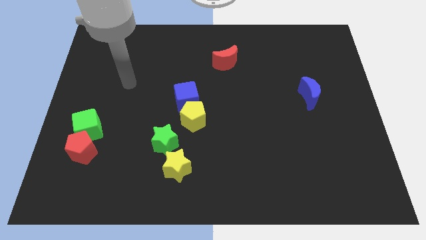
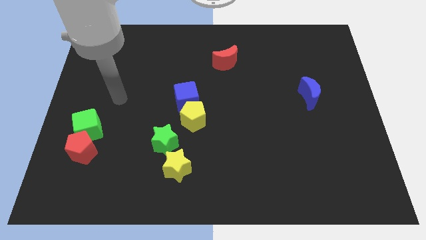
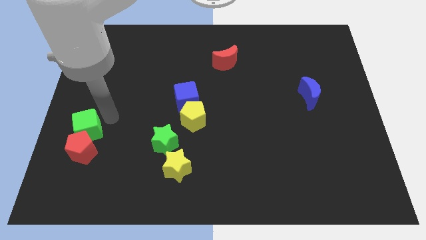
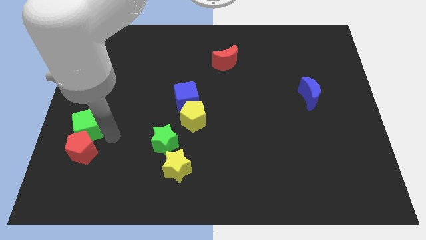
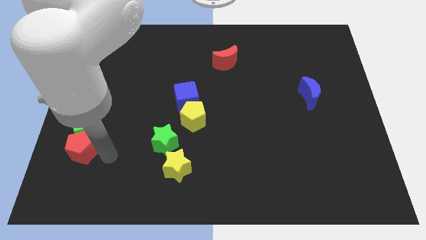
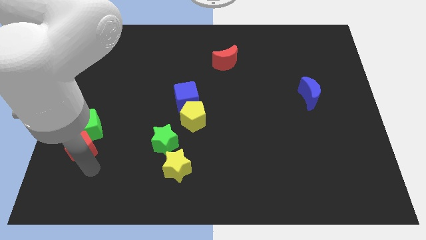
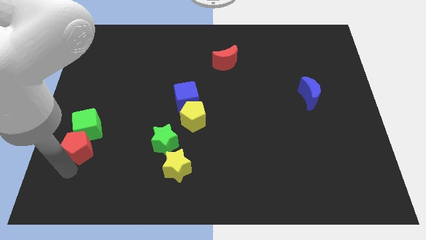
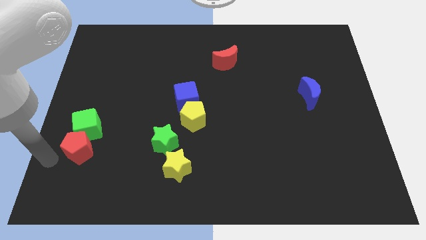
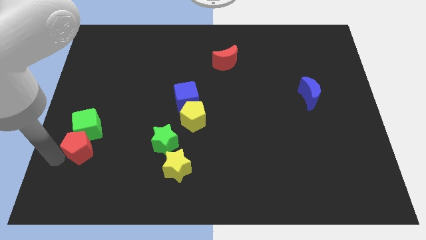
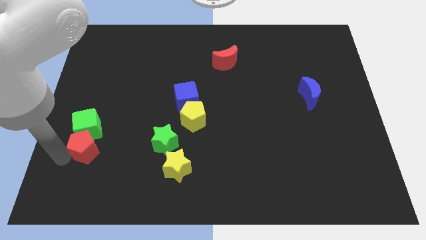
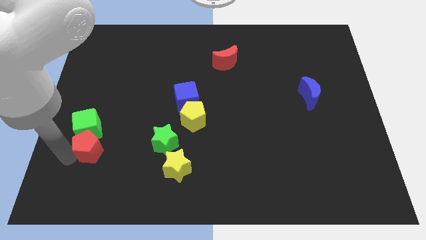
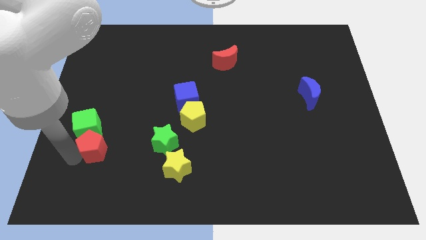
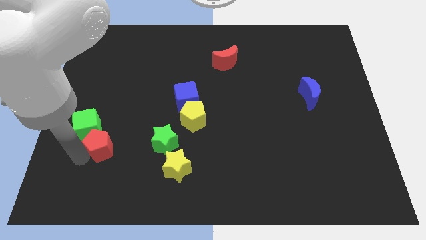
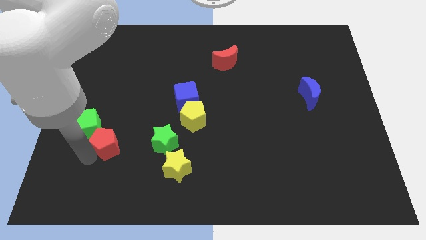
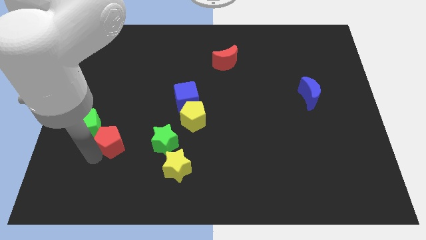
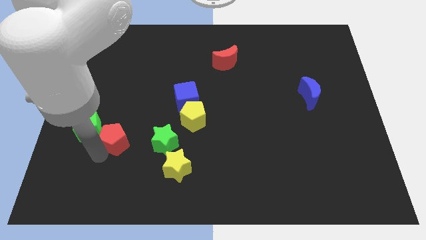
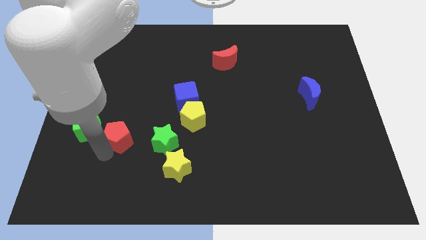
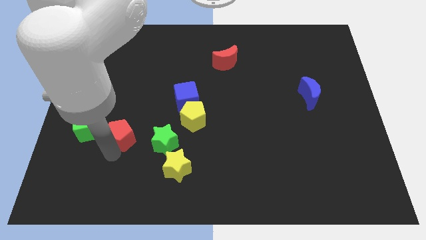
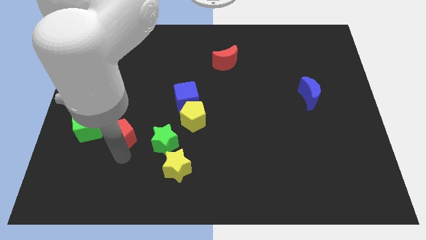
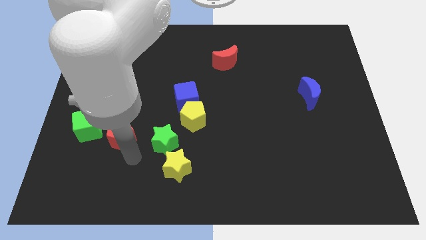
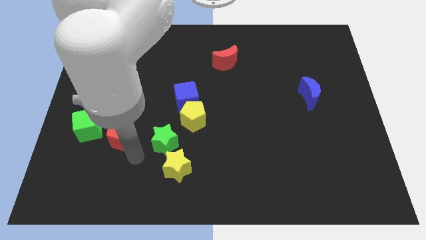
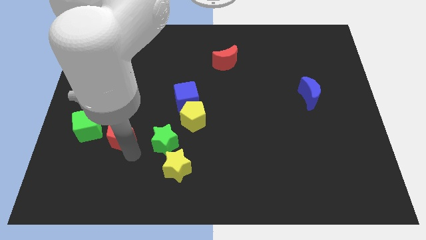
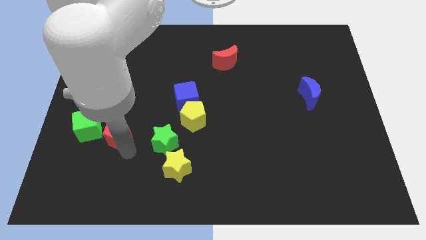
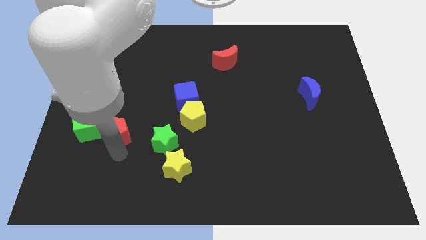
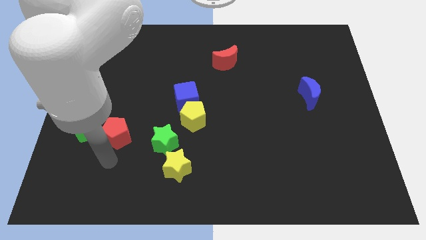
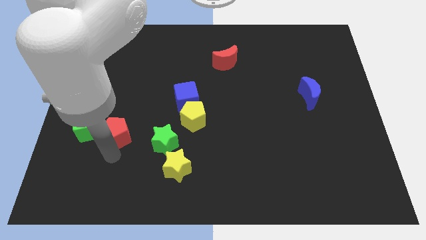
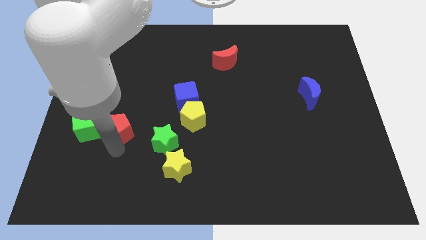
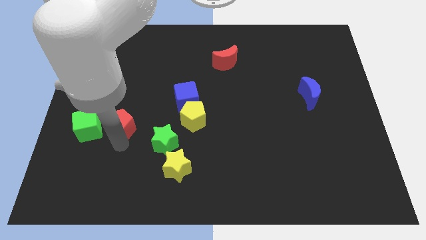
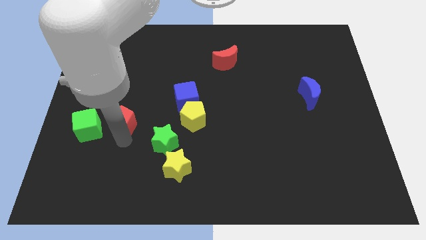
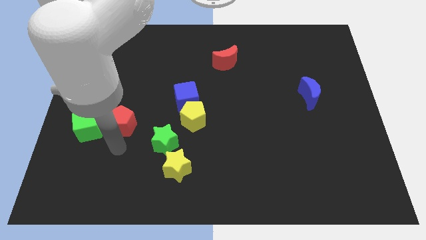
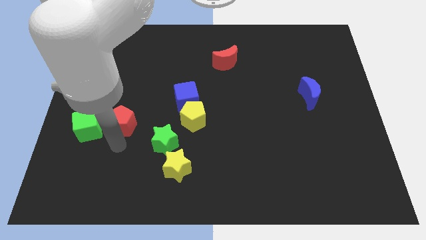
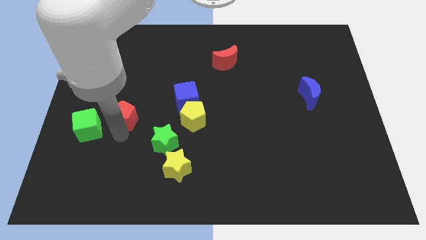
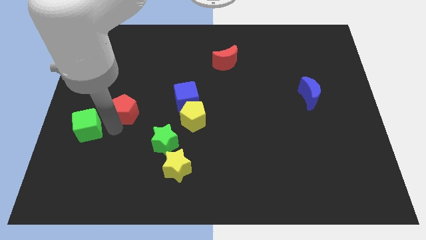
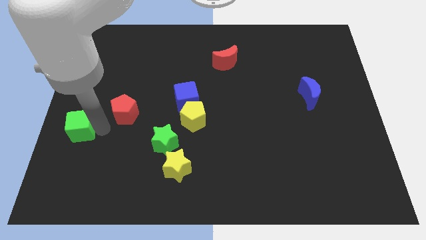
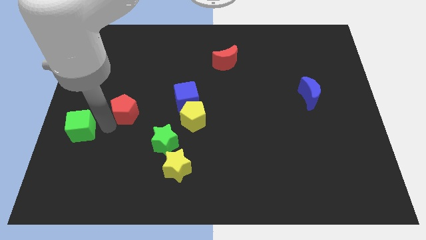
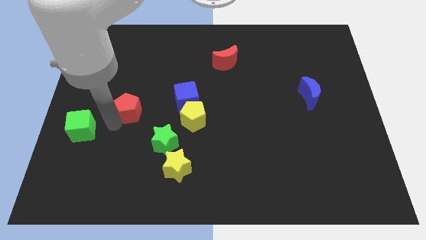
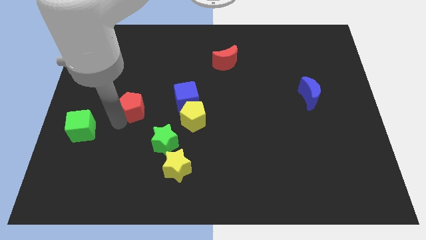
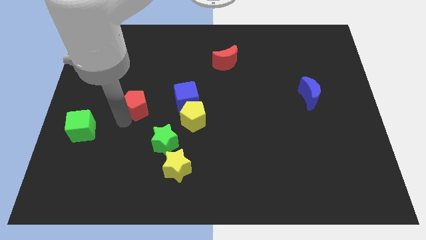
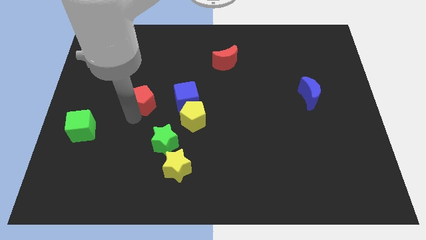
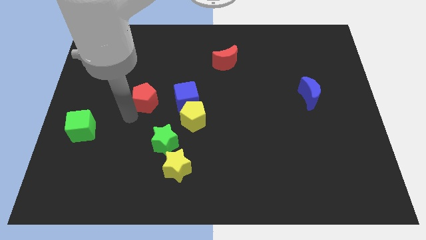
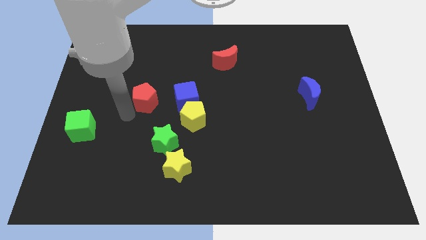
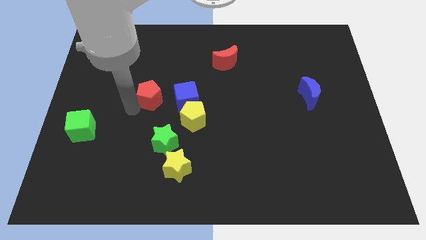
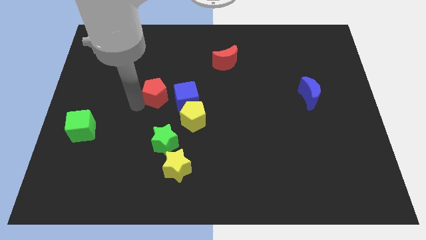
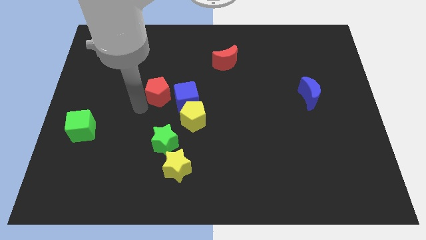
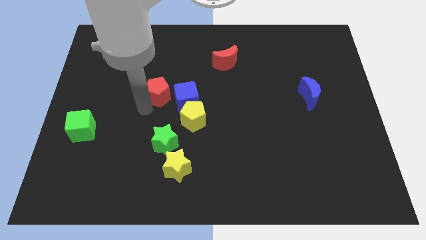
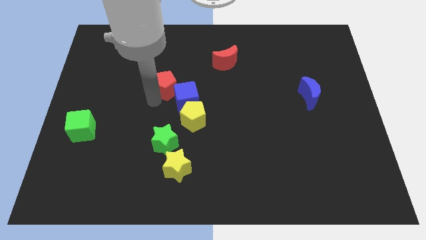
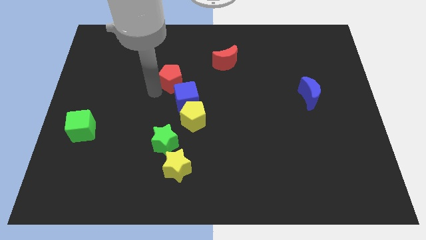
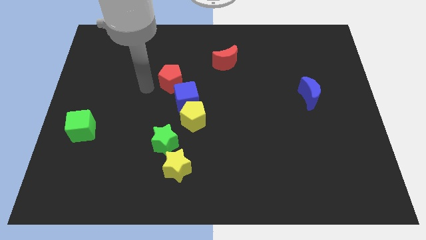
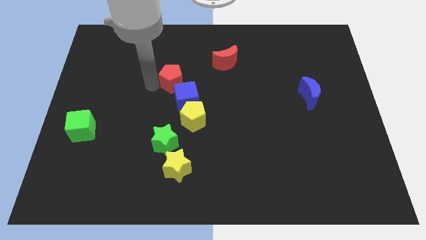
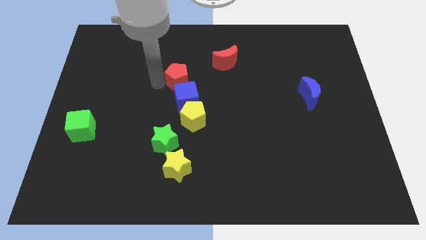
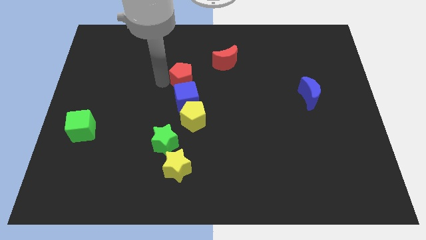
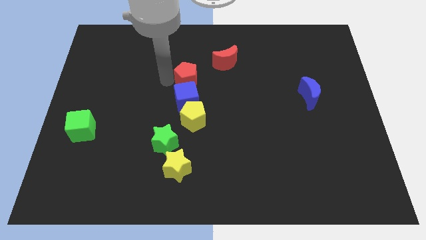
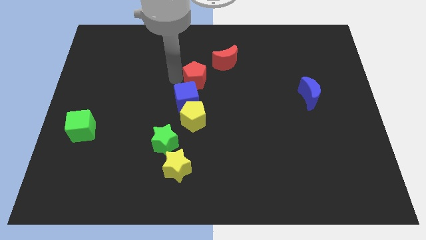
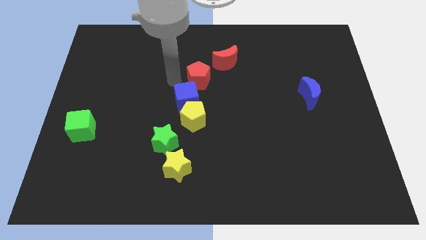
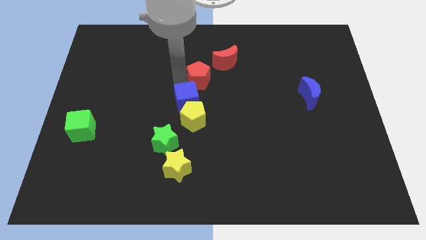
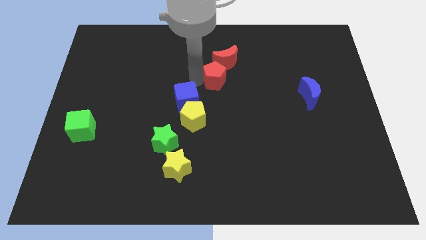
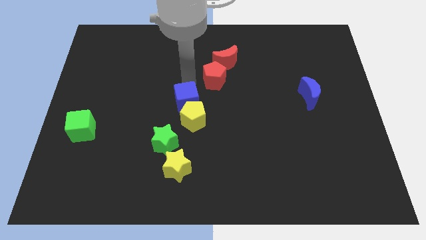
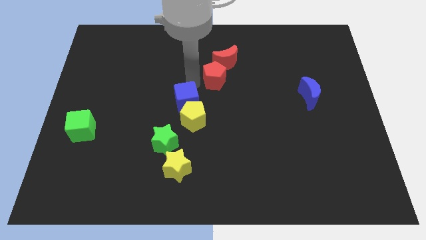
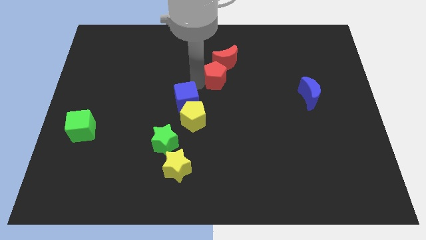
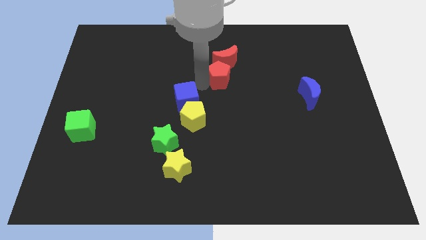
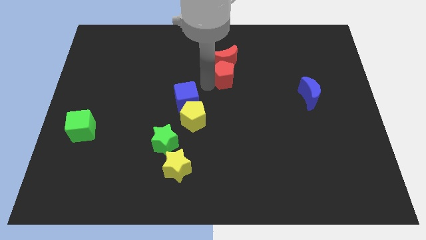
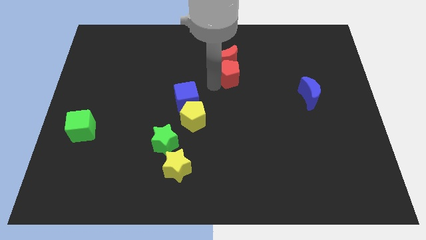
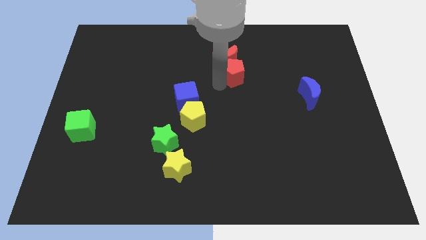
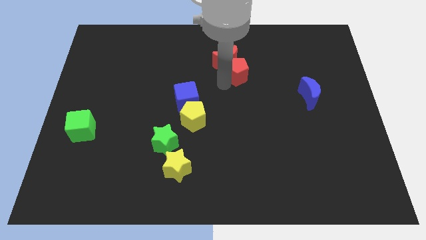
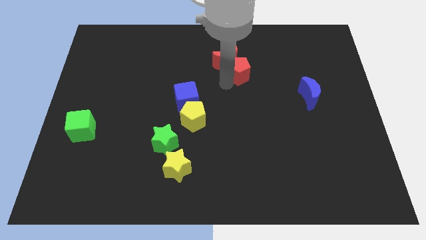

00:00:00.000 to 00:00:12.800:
push the red pentagon to the right side of the red moon

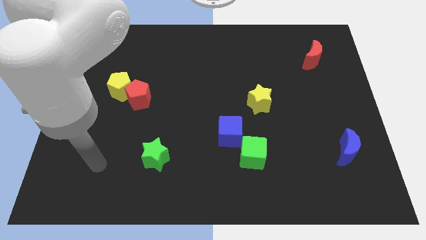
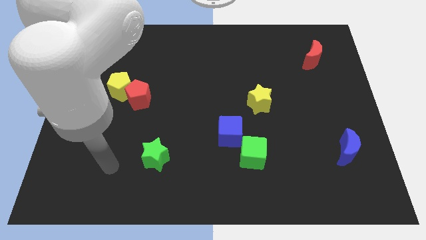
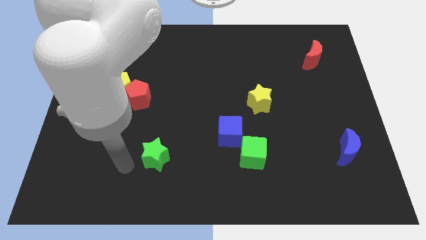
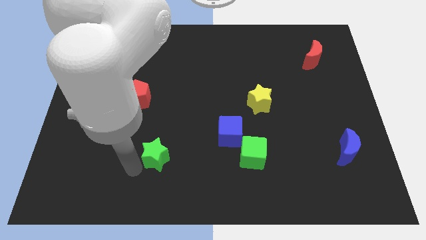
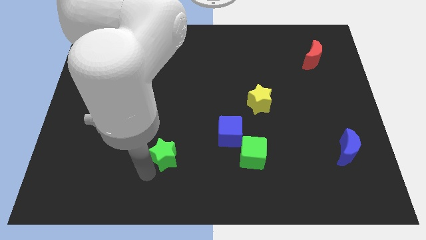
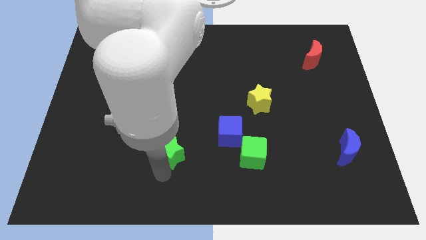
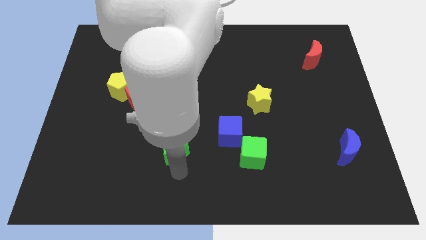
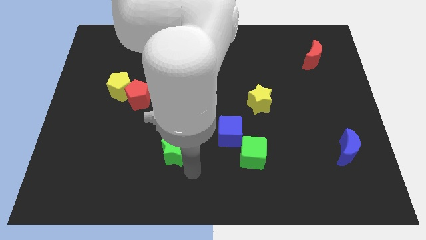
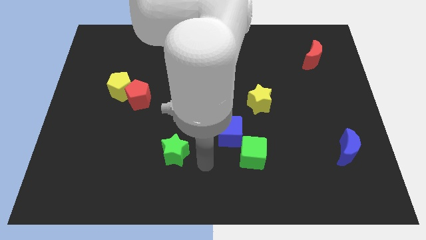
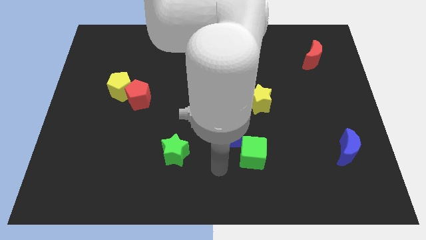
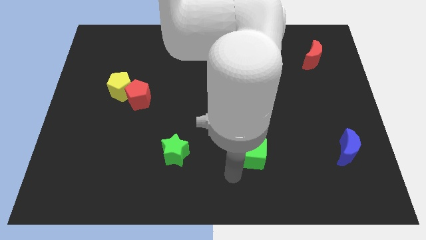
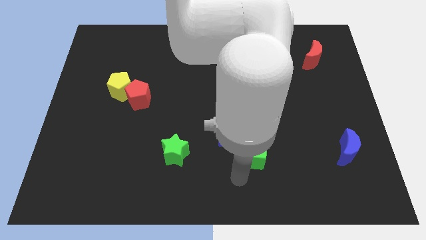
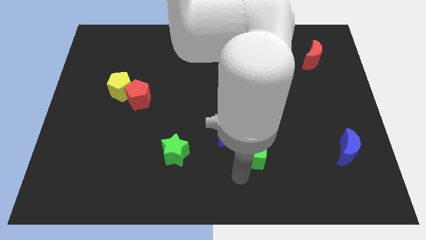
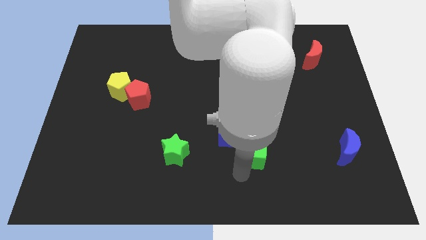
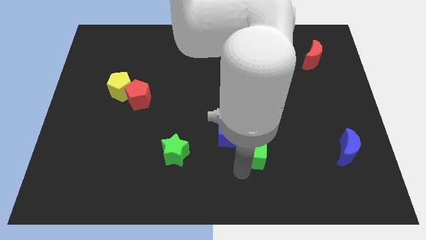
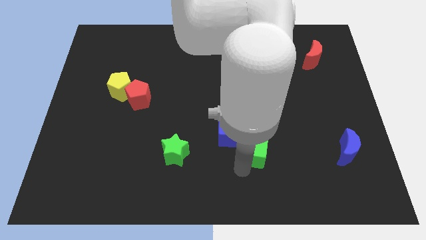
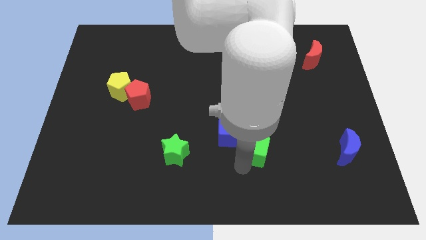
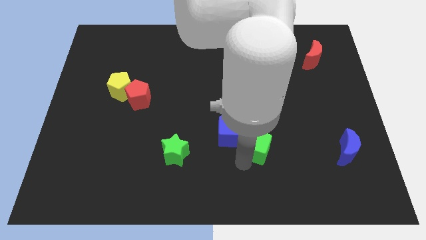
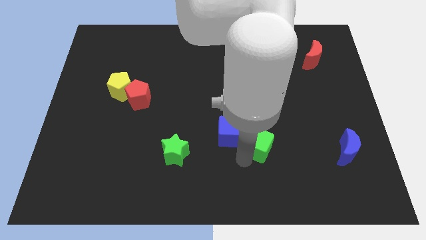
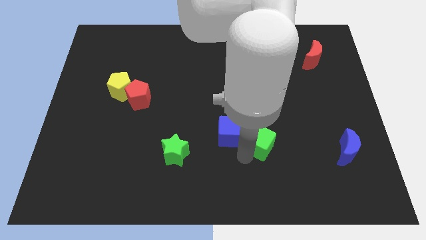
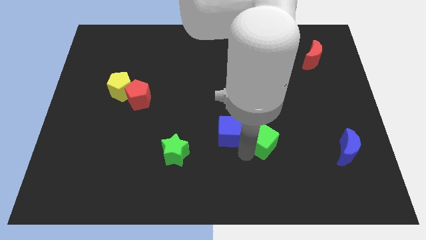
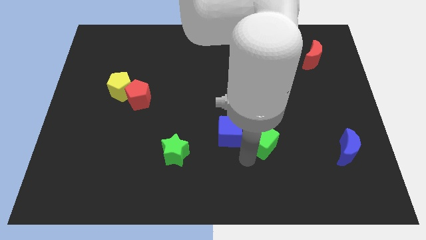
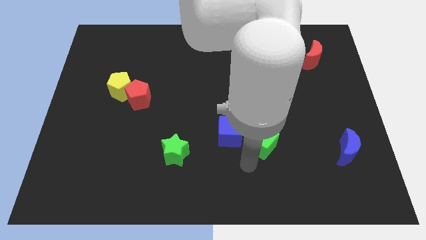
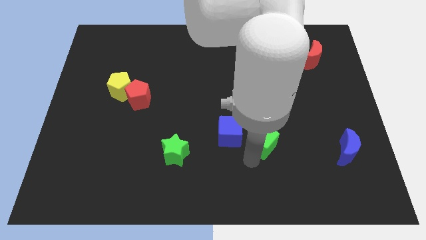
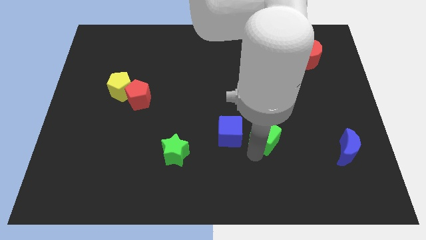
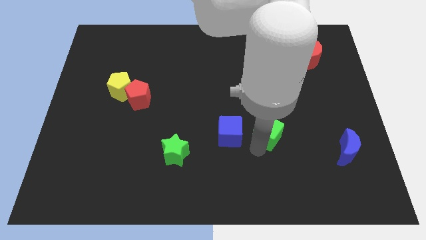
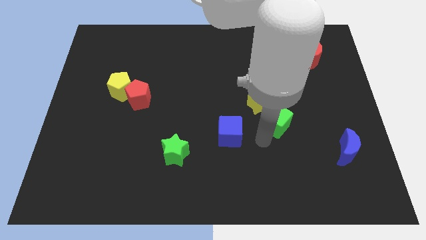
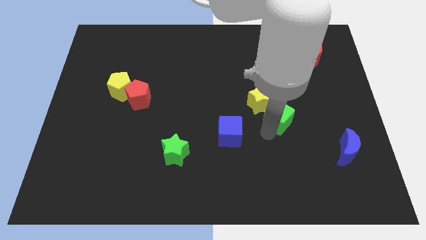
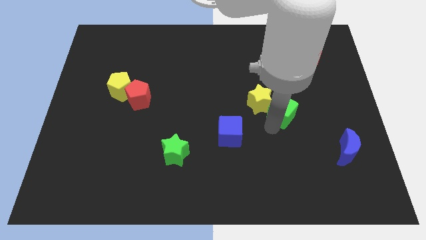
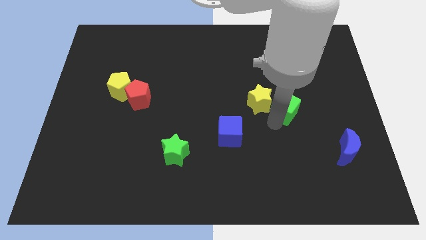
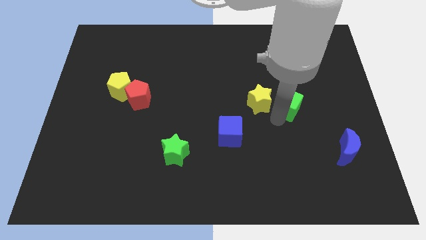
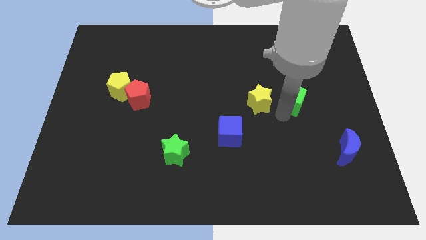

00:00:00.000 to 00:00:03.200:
move the green cube to the top right of the yellow star
